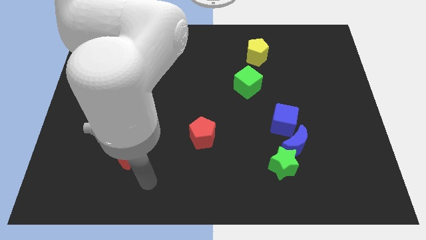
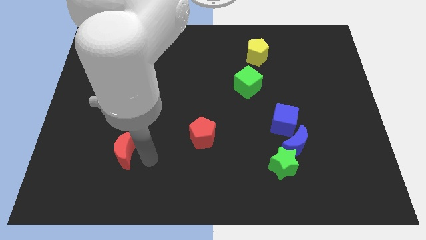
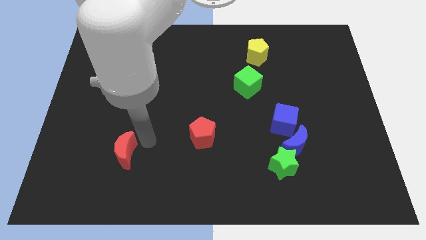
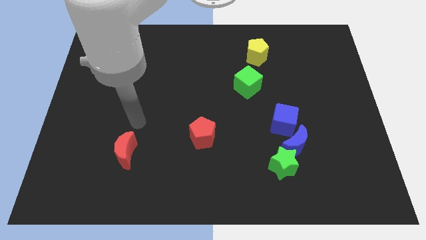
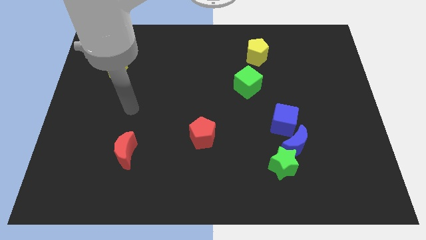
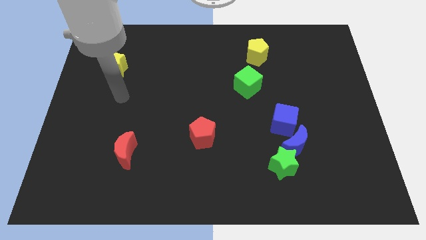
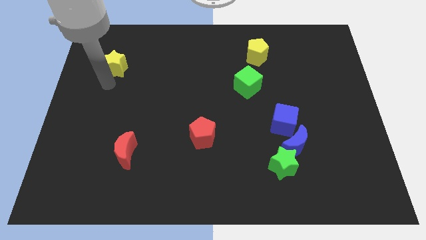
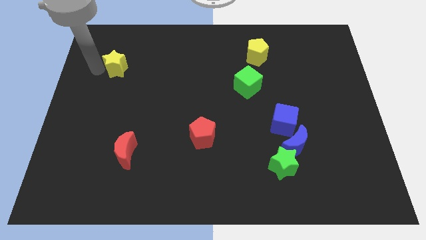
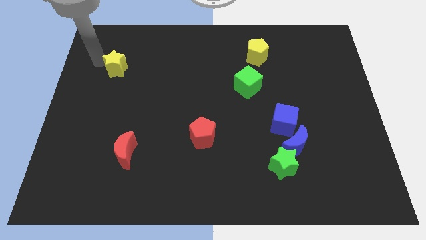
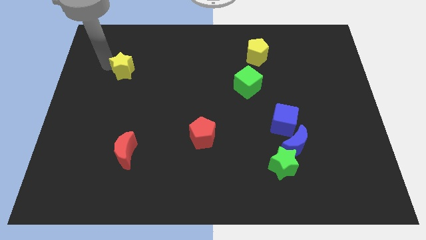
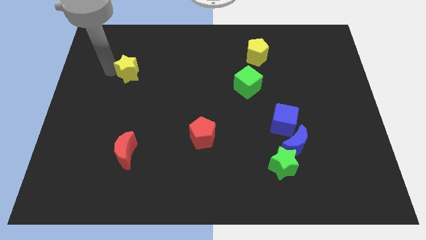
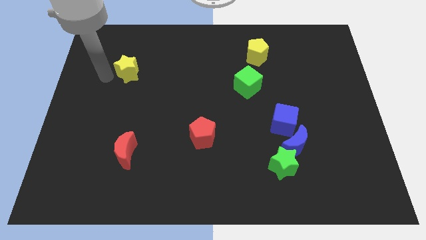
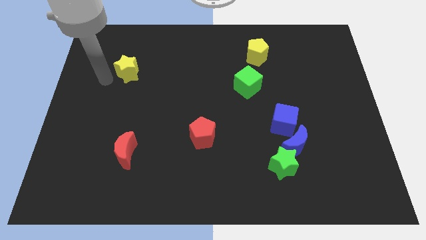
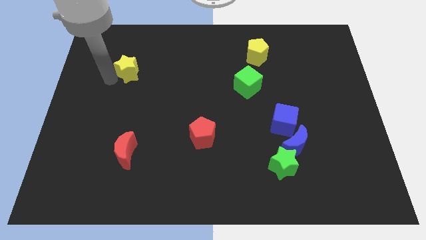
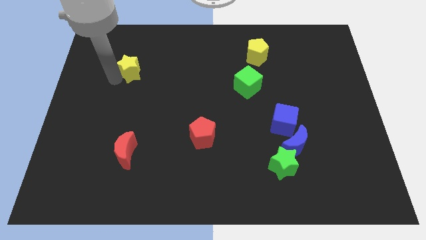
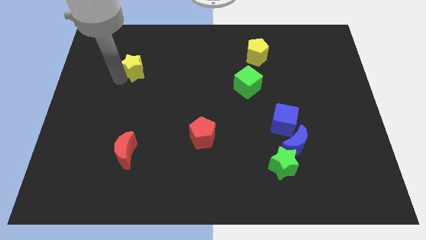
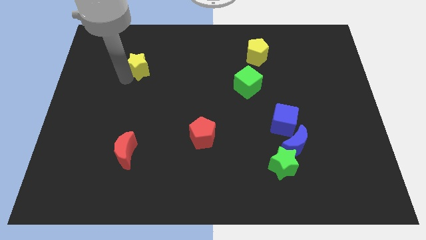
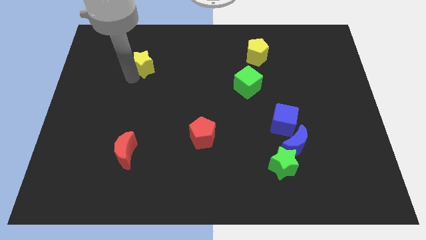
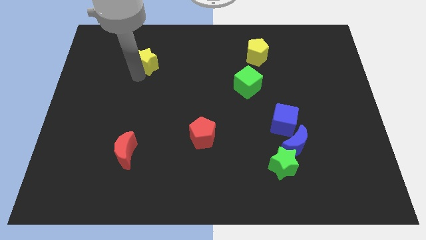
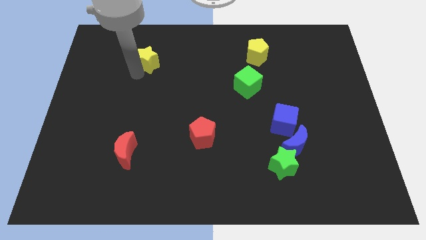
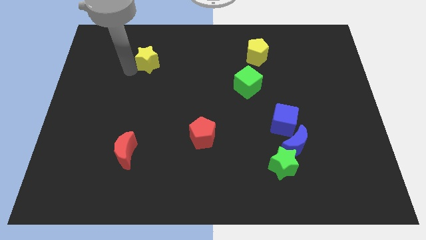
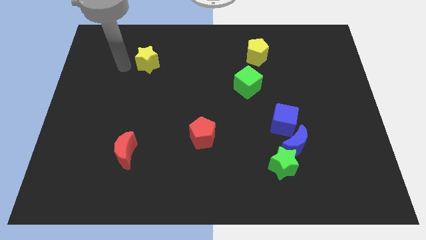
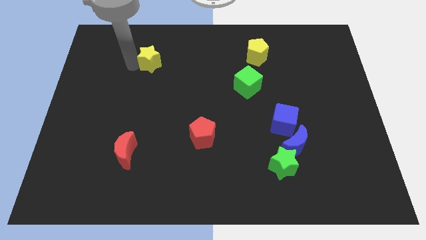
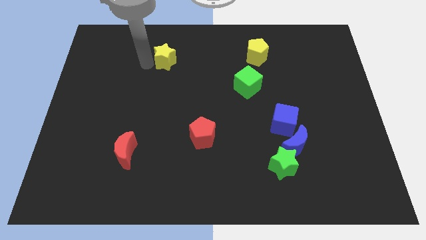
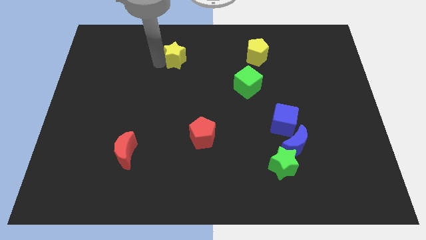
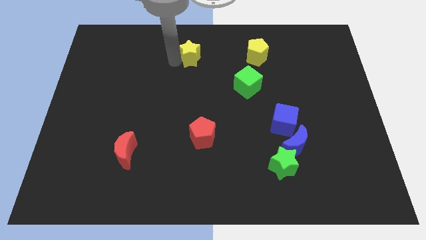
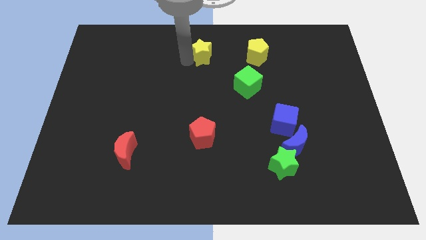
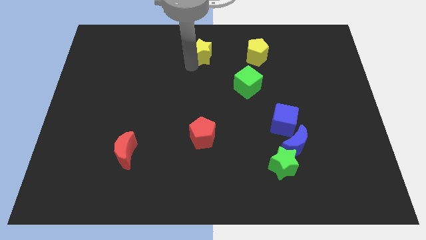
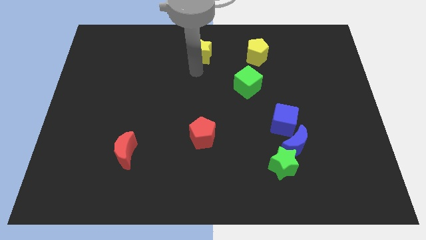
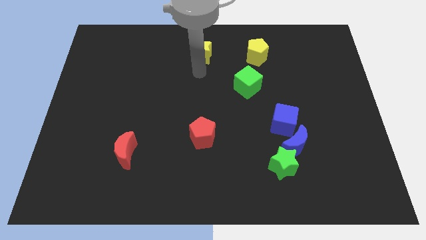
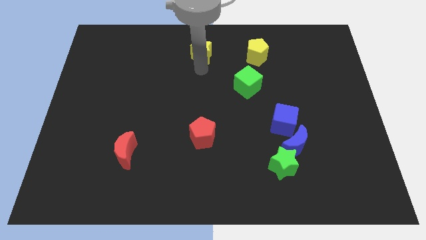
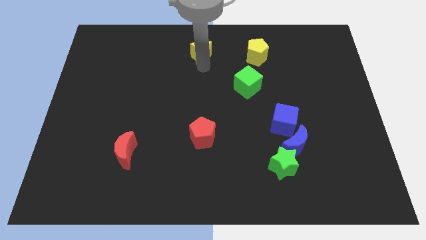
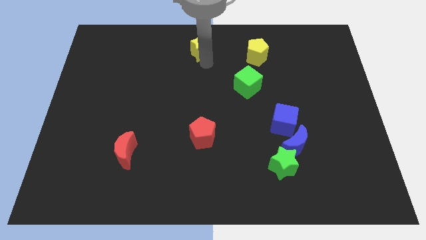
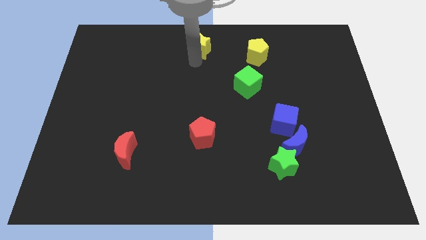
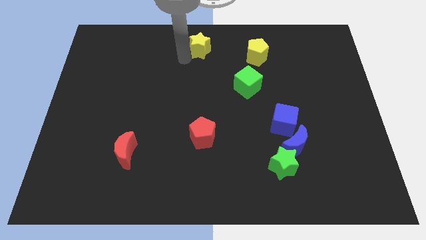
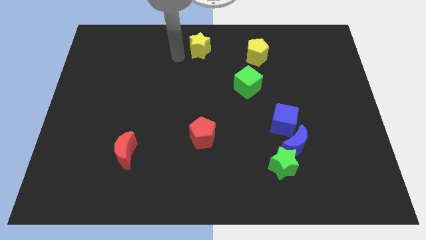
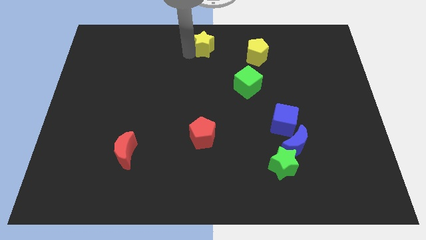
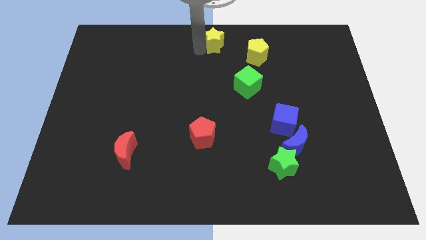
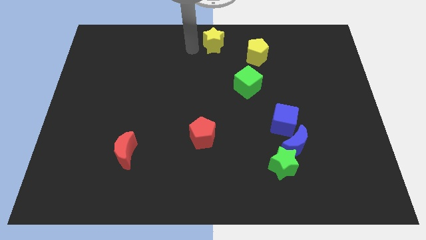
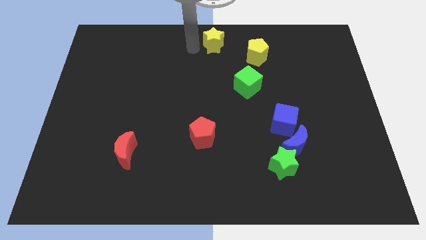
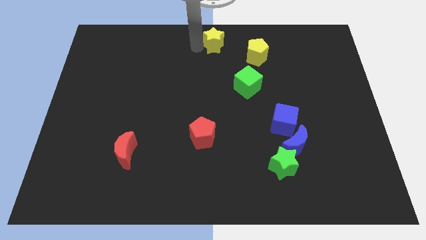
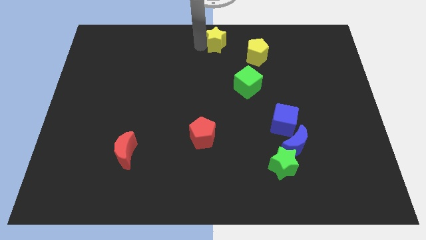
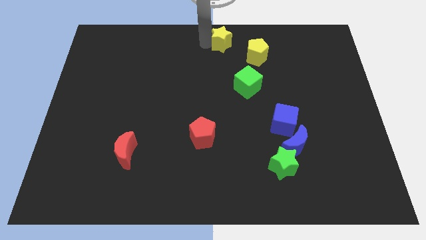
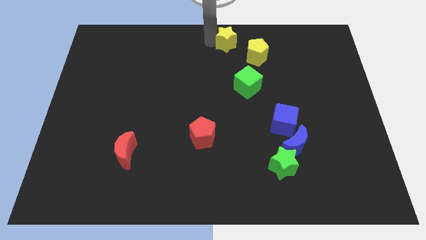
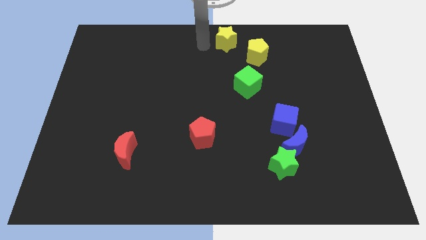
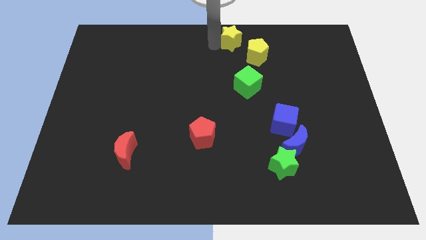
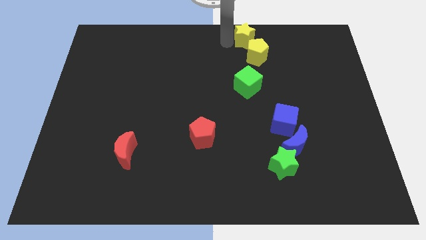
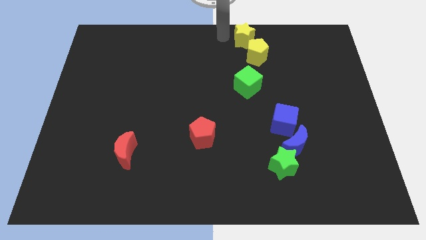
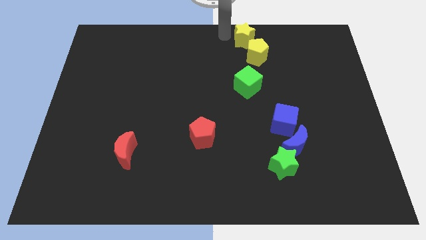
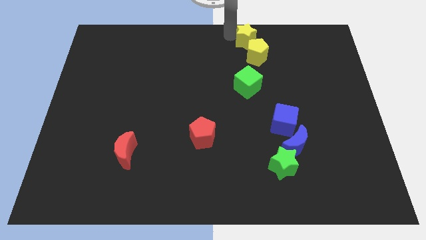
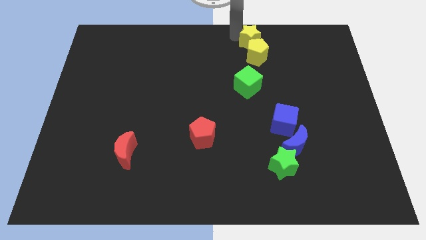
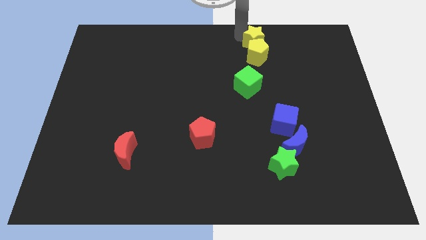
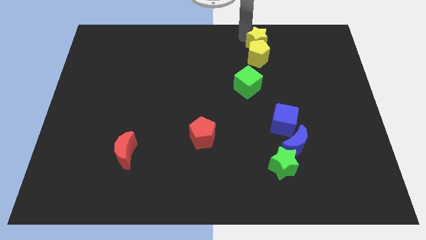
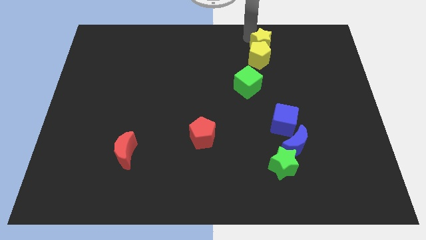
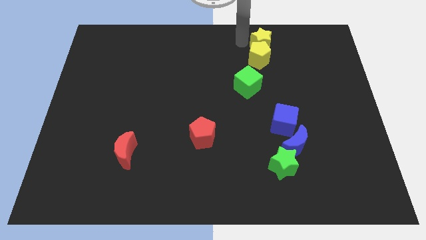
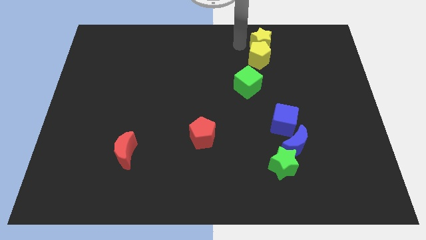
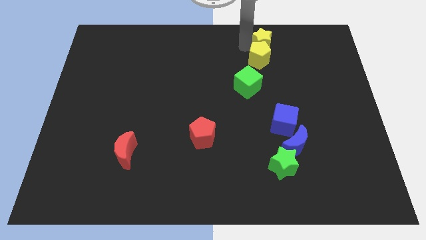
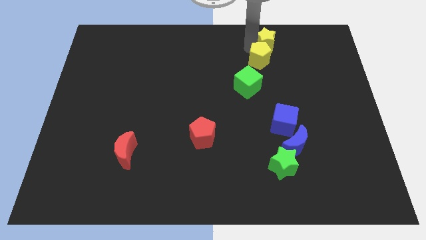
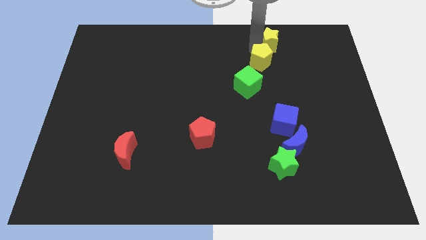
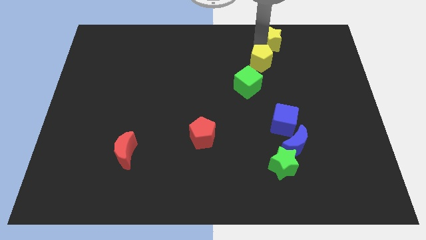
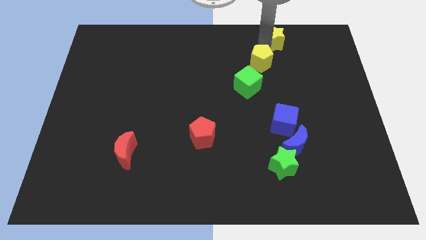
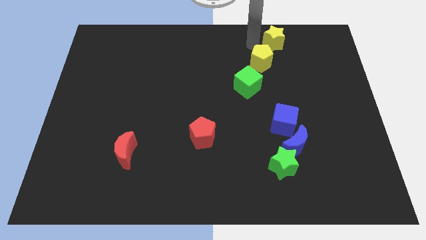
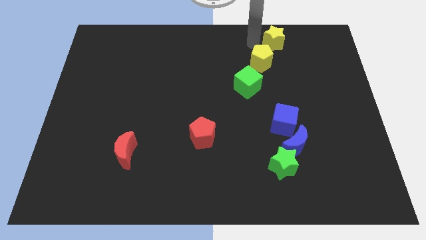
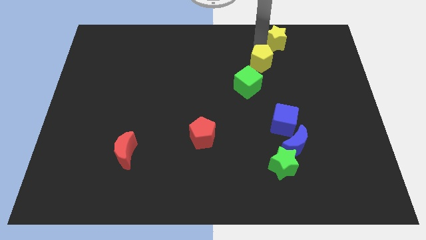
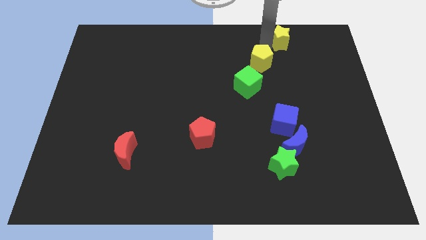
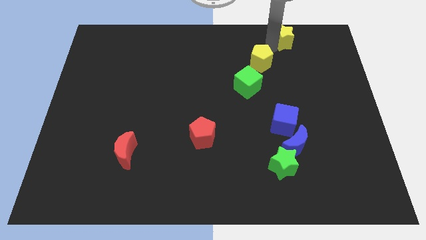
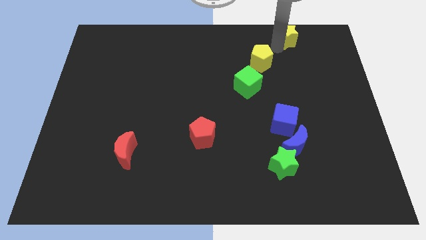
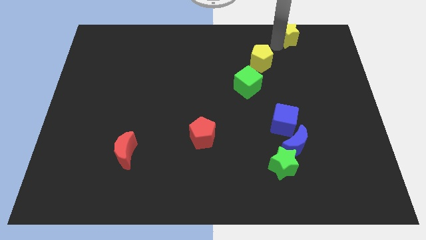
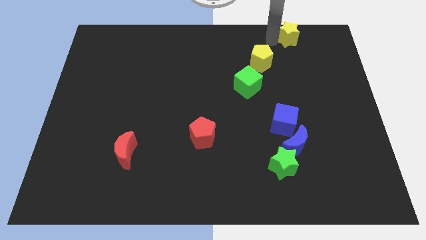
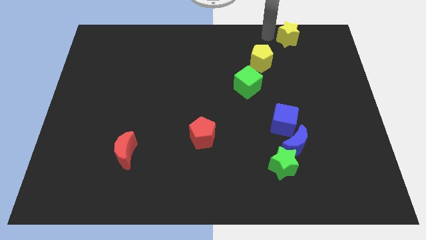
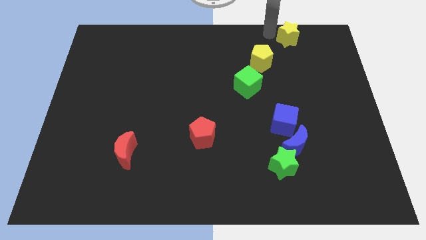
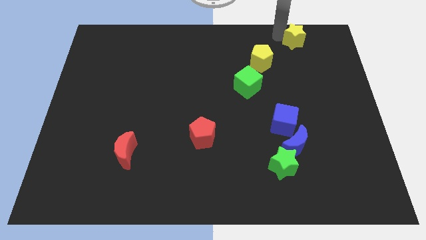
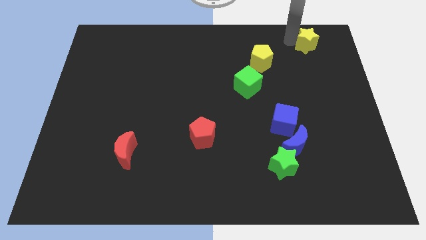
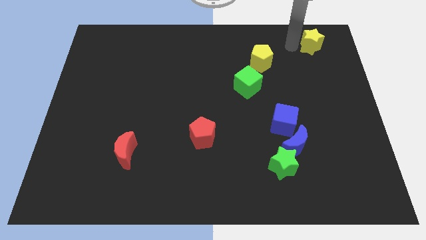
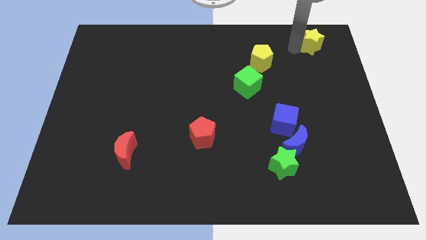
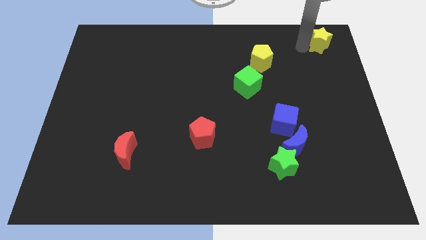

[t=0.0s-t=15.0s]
put the yellow star to the top right of the board
